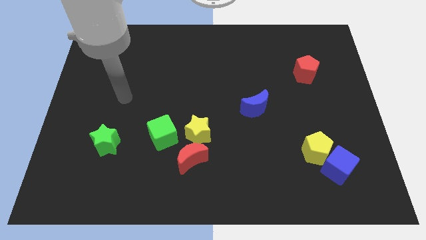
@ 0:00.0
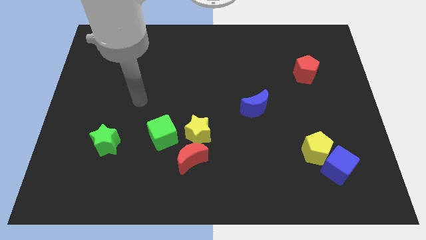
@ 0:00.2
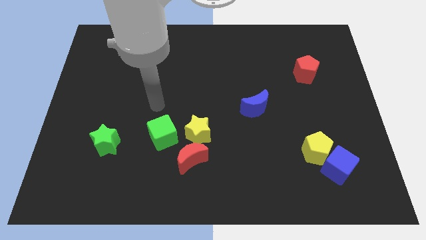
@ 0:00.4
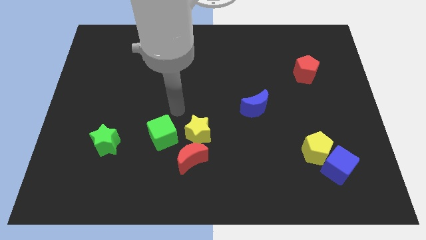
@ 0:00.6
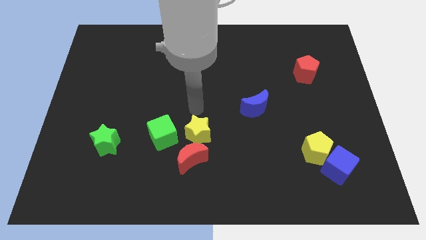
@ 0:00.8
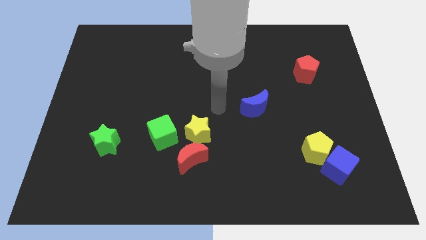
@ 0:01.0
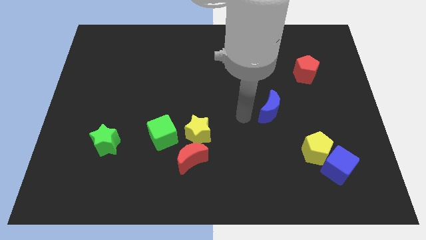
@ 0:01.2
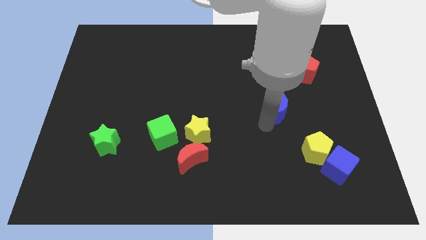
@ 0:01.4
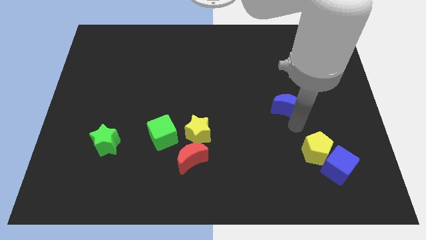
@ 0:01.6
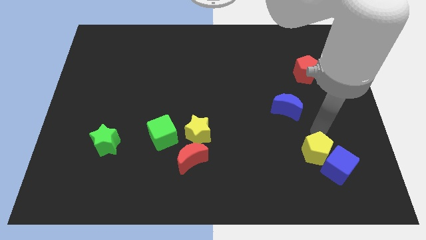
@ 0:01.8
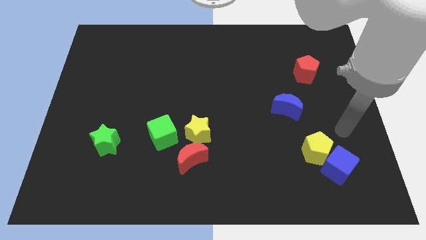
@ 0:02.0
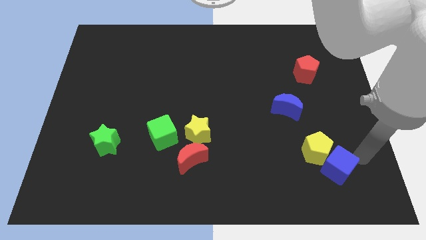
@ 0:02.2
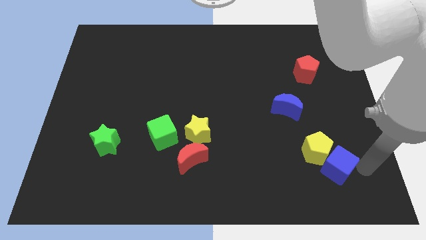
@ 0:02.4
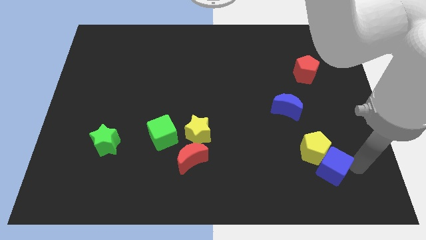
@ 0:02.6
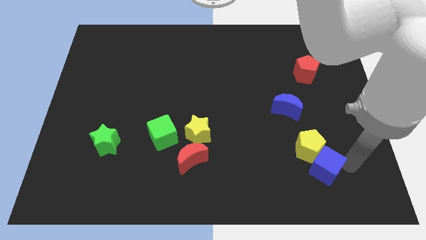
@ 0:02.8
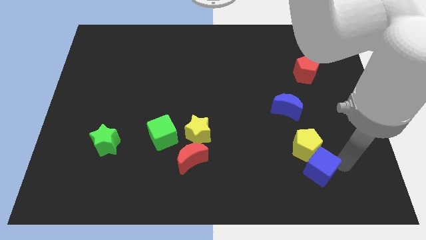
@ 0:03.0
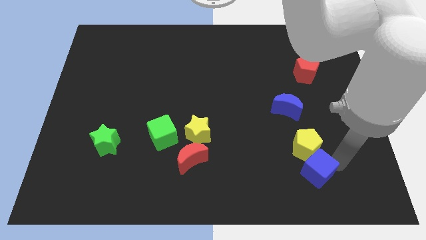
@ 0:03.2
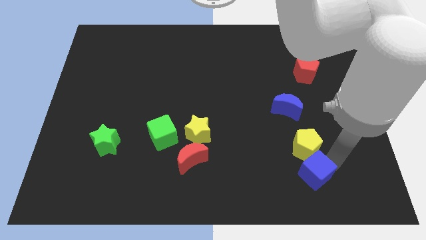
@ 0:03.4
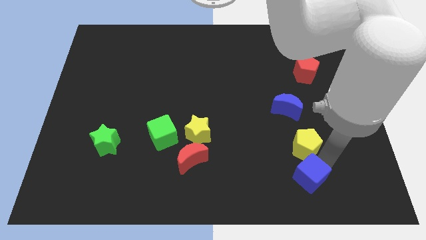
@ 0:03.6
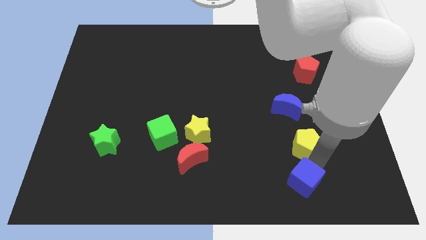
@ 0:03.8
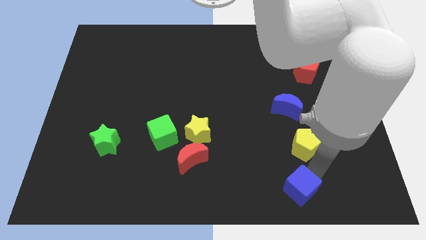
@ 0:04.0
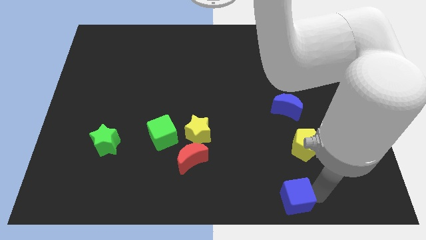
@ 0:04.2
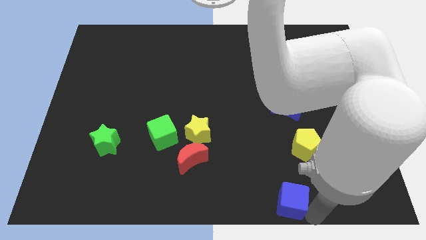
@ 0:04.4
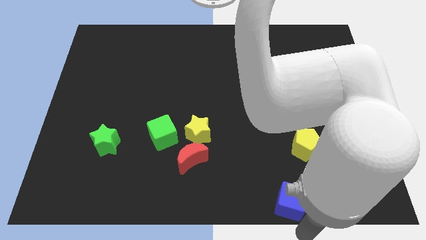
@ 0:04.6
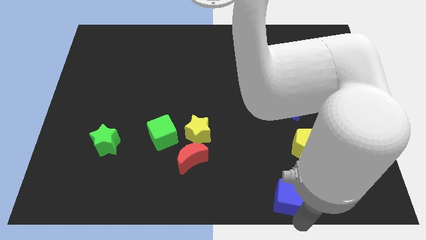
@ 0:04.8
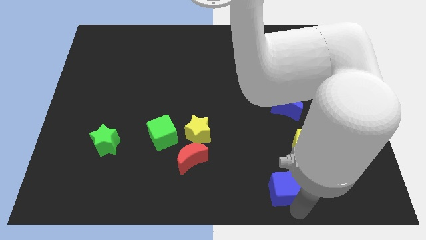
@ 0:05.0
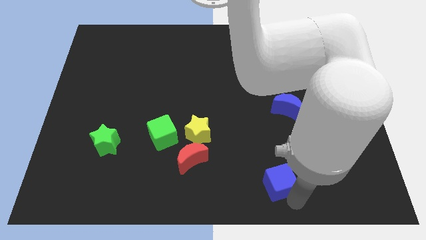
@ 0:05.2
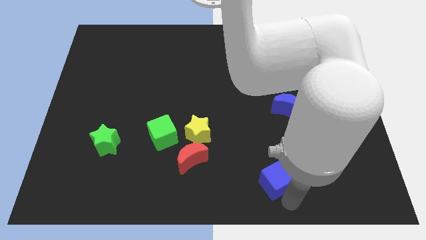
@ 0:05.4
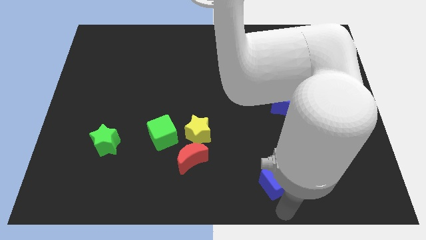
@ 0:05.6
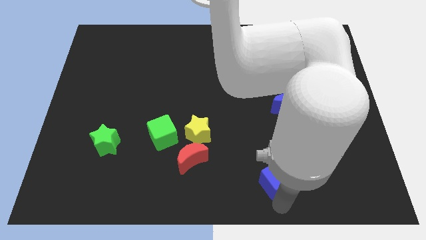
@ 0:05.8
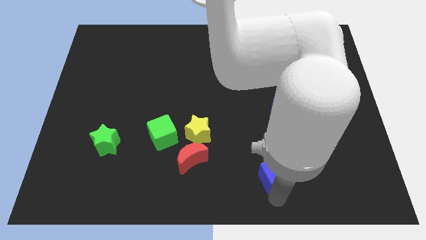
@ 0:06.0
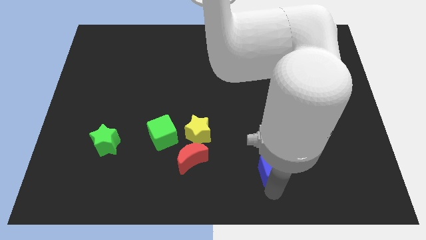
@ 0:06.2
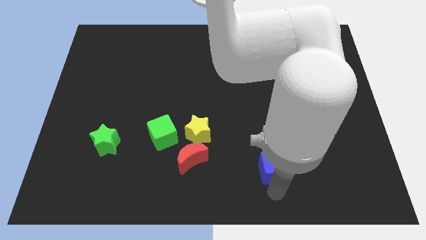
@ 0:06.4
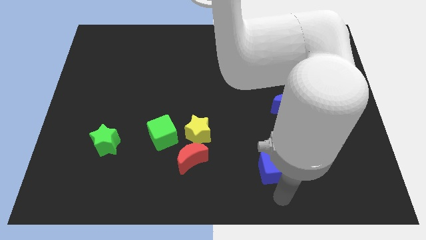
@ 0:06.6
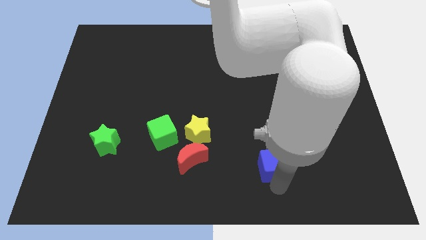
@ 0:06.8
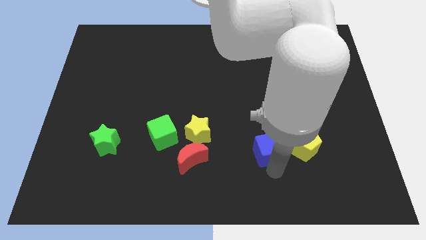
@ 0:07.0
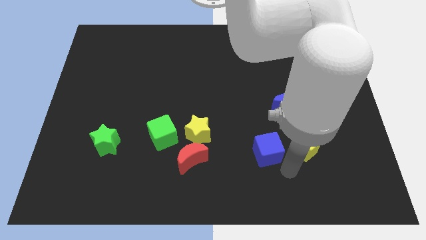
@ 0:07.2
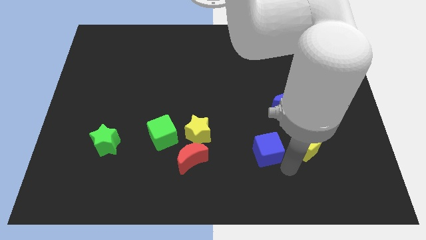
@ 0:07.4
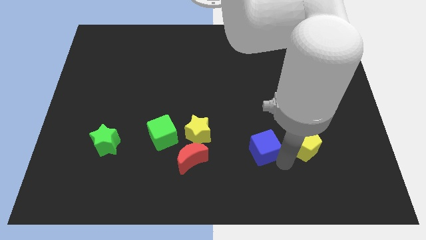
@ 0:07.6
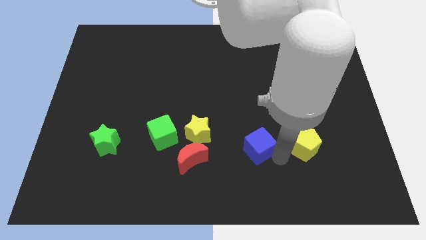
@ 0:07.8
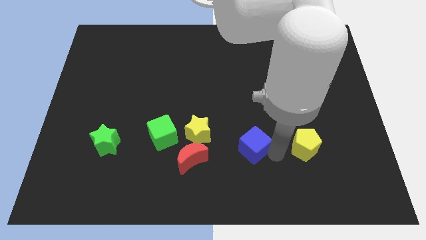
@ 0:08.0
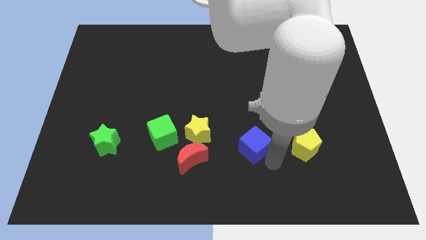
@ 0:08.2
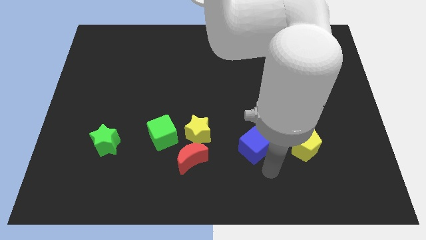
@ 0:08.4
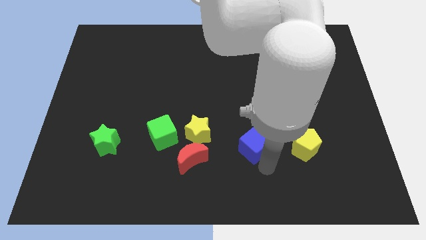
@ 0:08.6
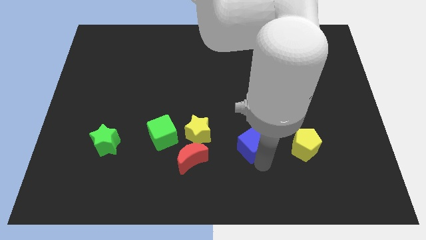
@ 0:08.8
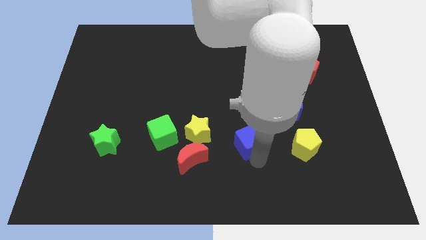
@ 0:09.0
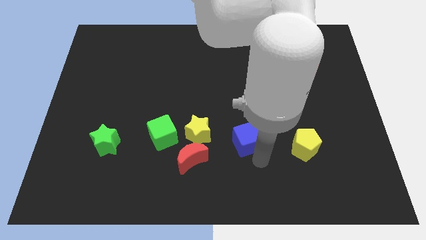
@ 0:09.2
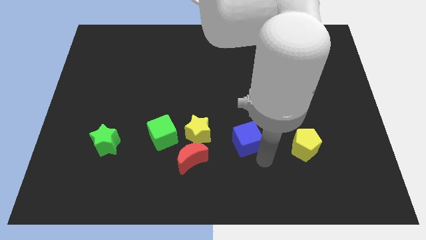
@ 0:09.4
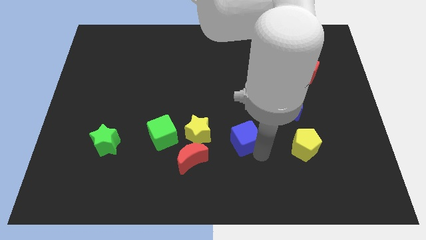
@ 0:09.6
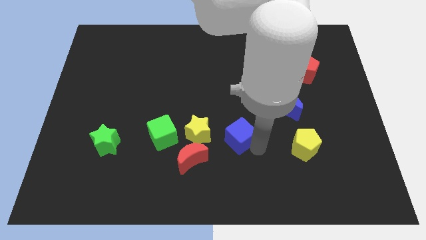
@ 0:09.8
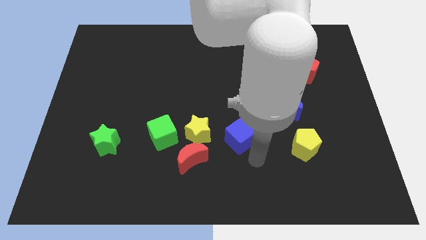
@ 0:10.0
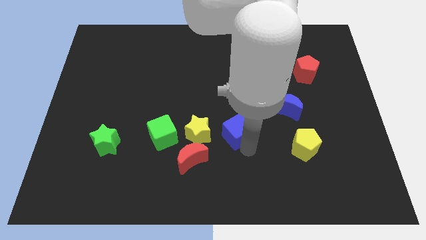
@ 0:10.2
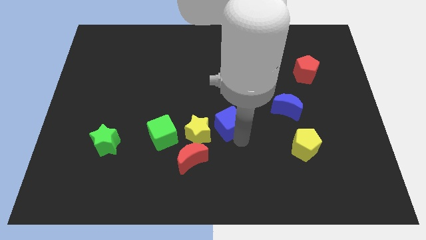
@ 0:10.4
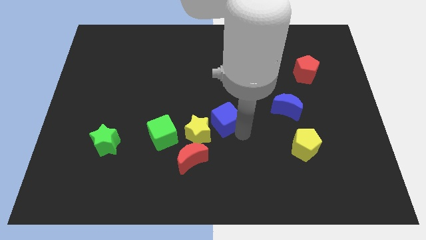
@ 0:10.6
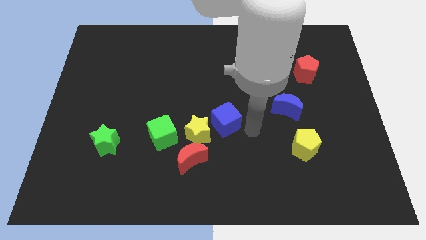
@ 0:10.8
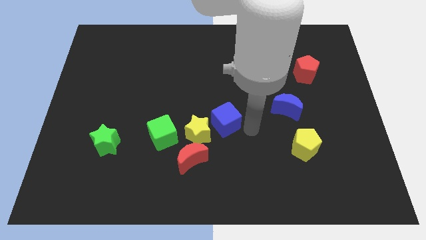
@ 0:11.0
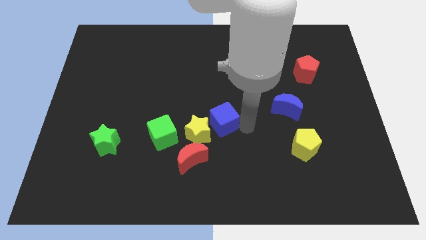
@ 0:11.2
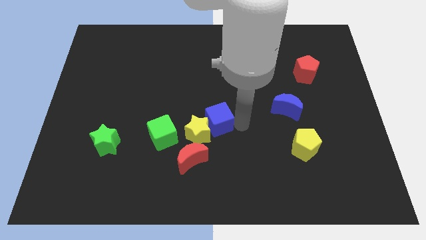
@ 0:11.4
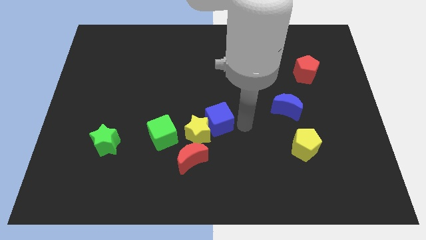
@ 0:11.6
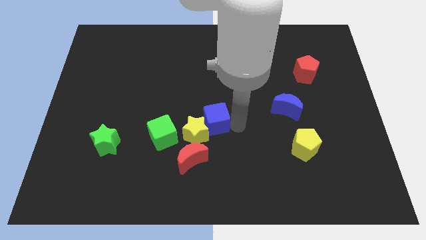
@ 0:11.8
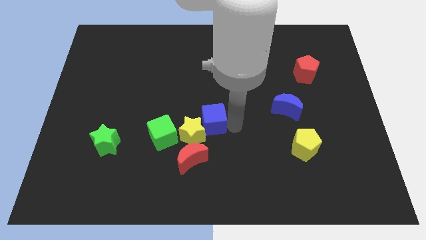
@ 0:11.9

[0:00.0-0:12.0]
put the blue cube above the red moon

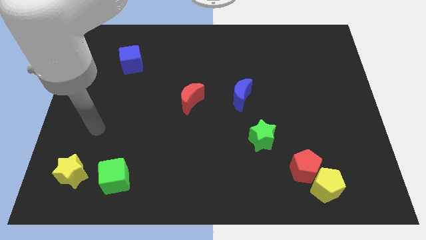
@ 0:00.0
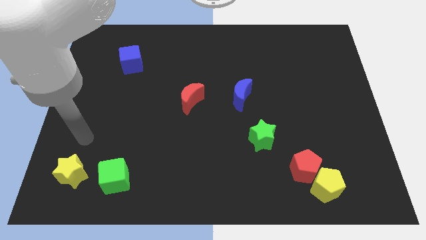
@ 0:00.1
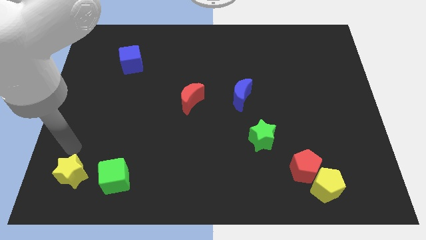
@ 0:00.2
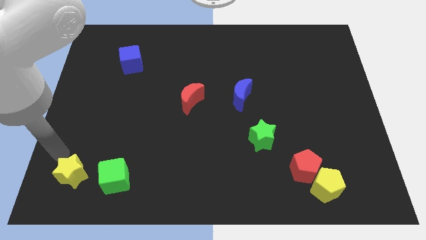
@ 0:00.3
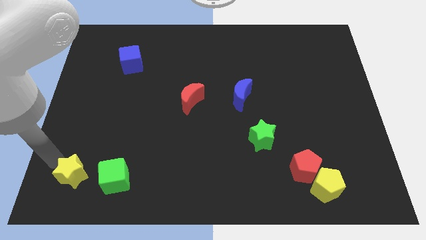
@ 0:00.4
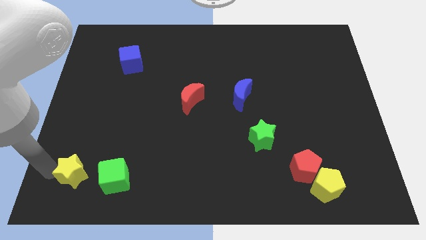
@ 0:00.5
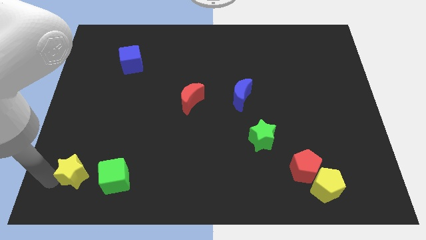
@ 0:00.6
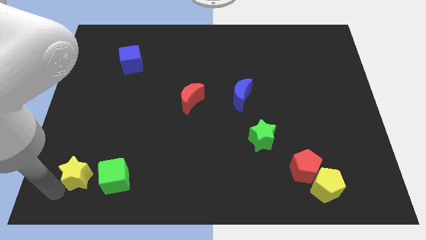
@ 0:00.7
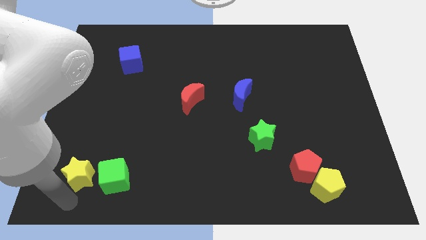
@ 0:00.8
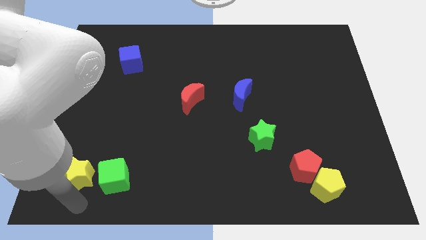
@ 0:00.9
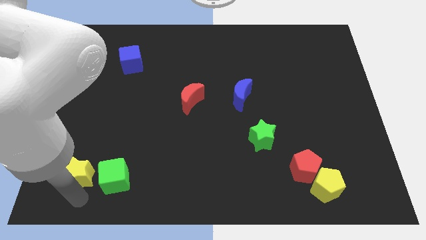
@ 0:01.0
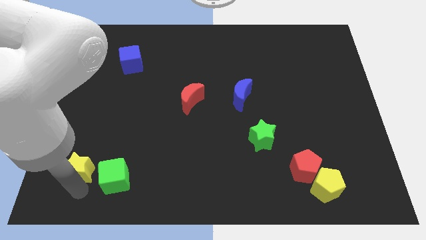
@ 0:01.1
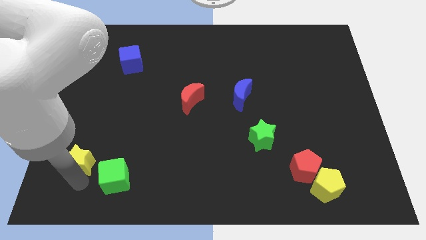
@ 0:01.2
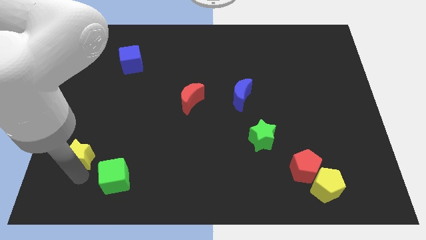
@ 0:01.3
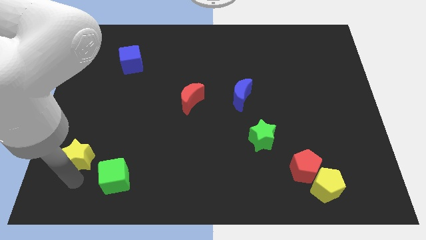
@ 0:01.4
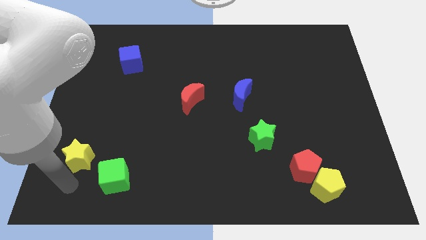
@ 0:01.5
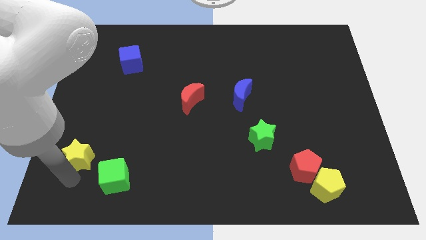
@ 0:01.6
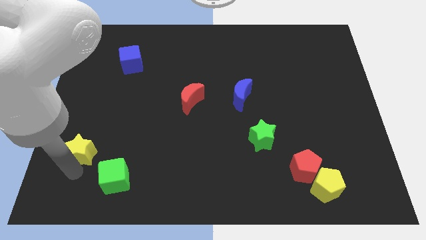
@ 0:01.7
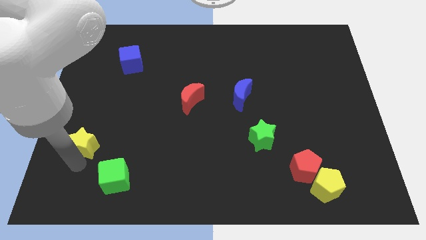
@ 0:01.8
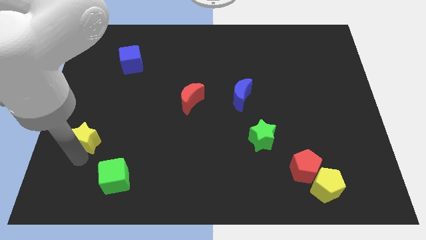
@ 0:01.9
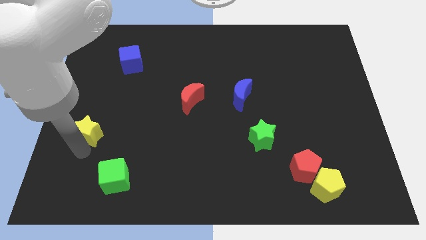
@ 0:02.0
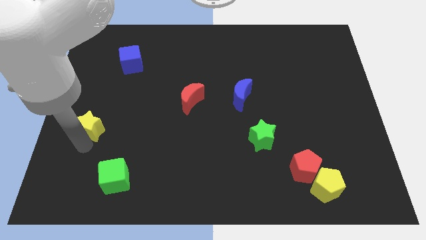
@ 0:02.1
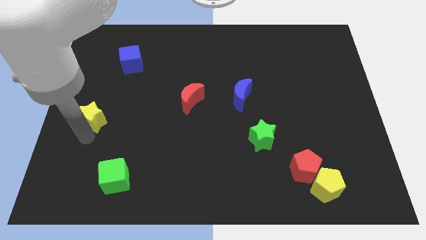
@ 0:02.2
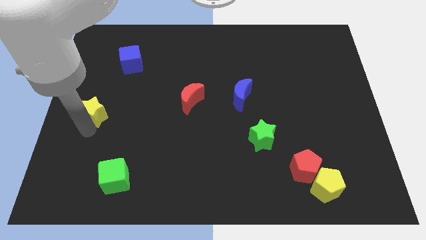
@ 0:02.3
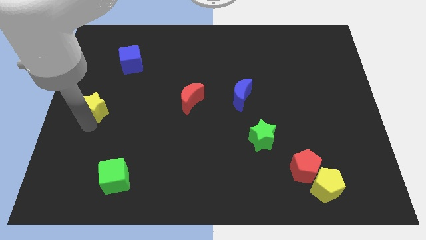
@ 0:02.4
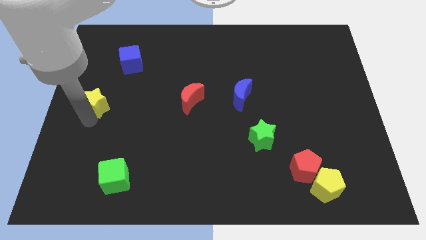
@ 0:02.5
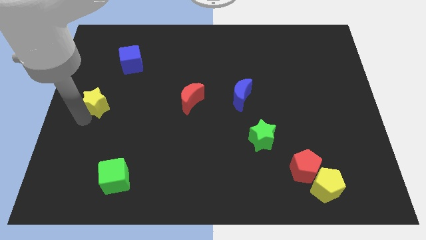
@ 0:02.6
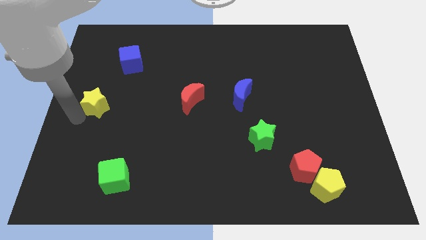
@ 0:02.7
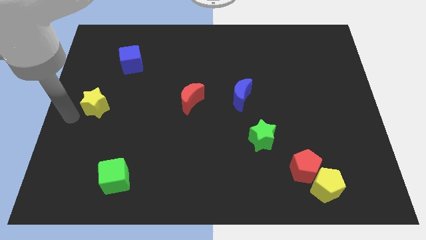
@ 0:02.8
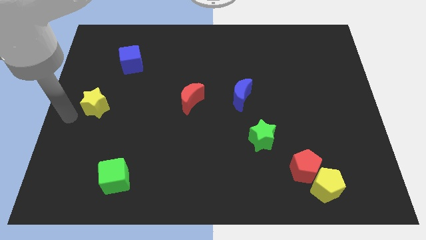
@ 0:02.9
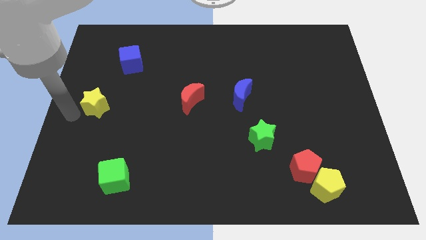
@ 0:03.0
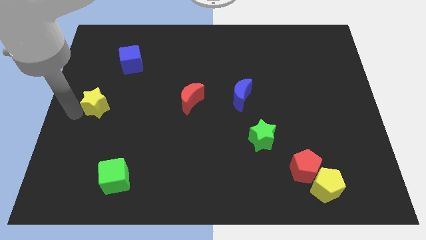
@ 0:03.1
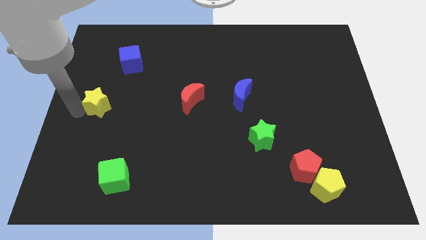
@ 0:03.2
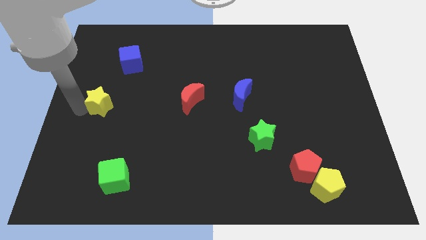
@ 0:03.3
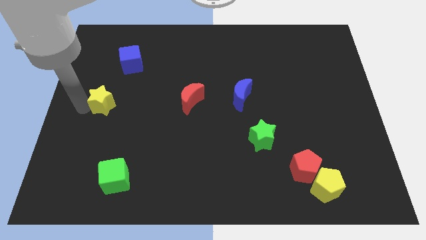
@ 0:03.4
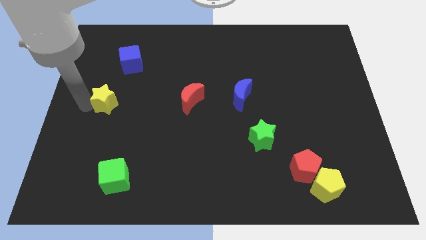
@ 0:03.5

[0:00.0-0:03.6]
slide the yellow star to the bottom of the blue cube
